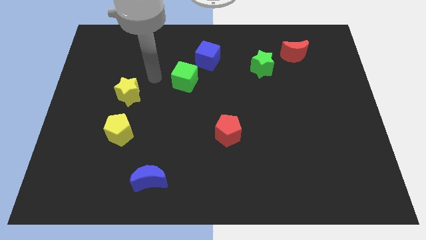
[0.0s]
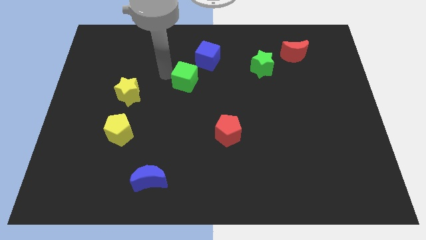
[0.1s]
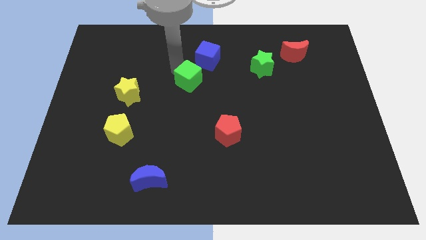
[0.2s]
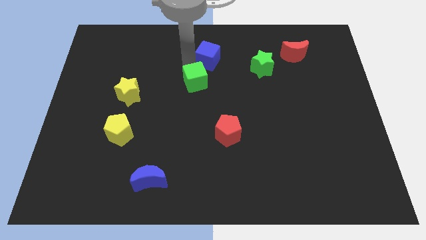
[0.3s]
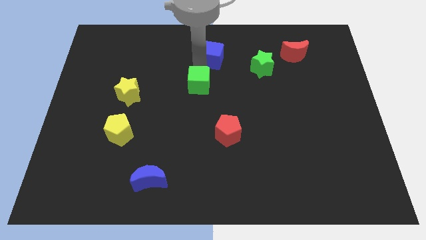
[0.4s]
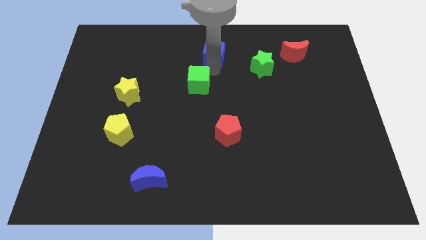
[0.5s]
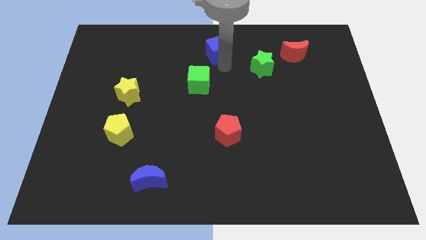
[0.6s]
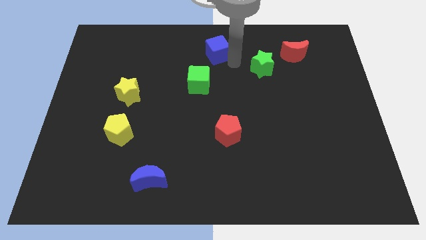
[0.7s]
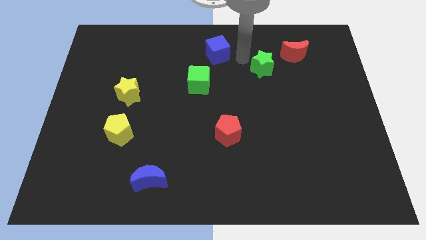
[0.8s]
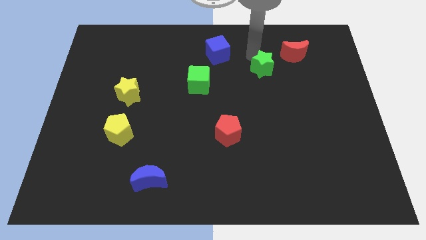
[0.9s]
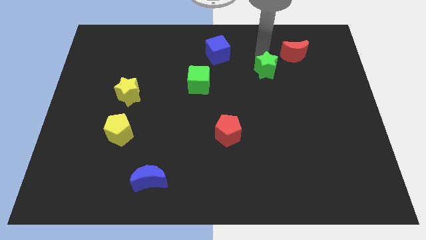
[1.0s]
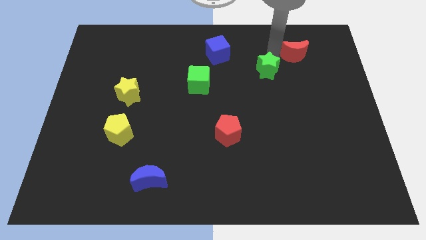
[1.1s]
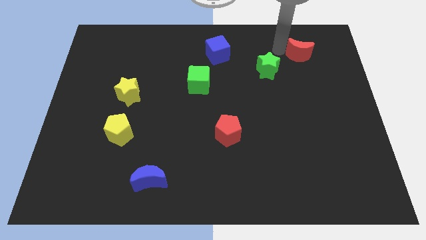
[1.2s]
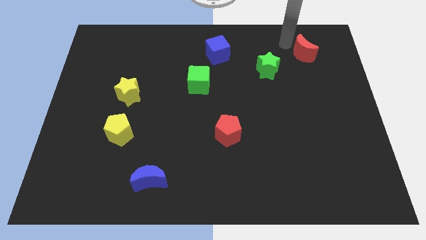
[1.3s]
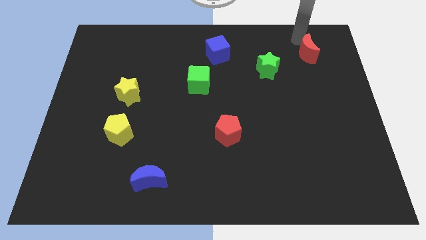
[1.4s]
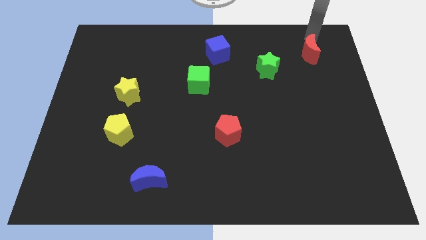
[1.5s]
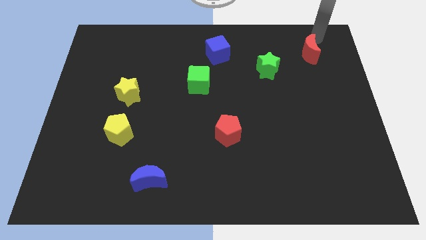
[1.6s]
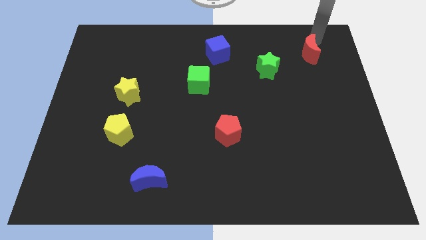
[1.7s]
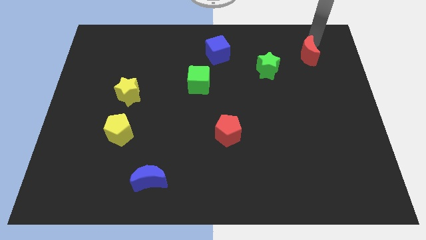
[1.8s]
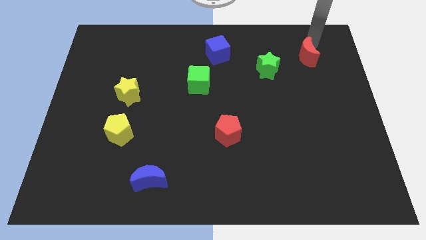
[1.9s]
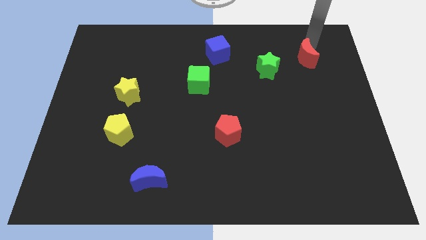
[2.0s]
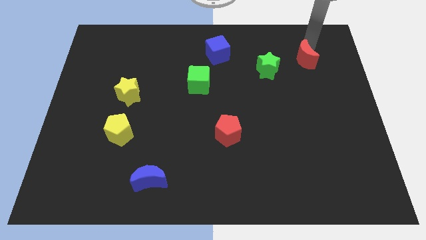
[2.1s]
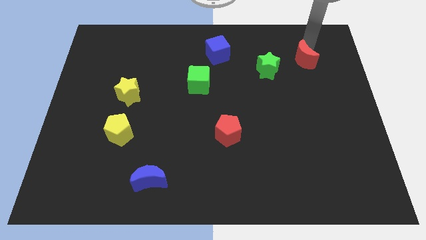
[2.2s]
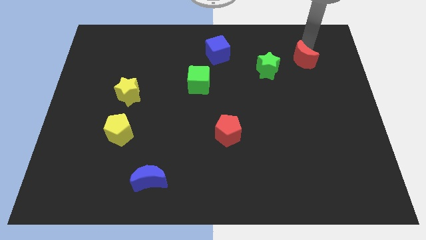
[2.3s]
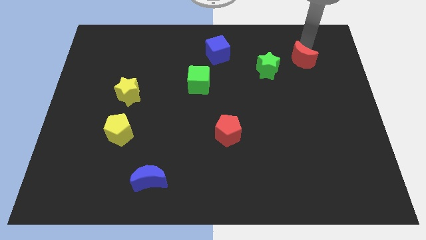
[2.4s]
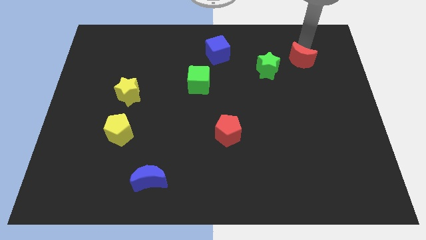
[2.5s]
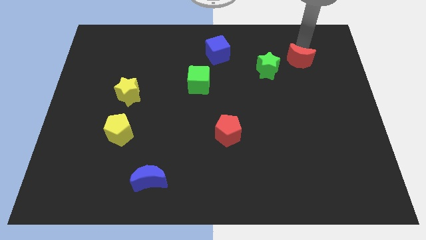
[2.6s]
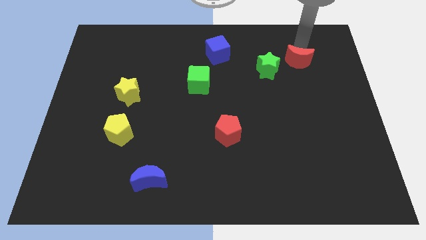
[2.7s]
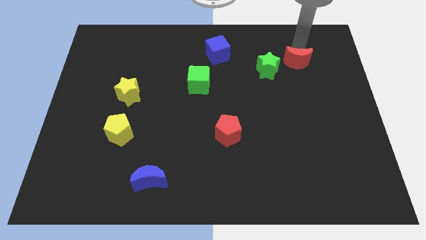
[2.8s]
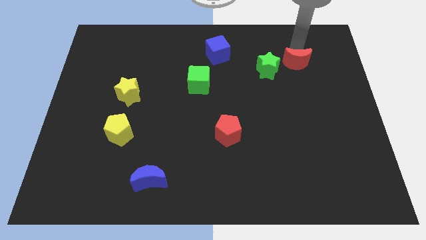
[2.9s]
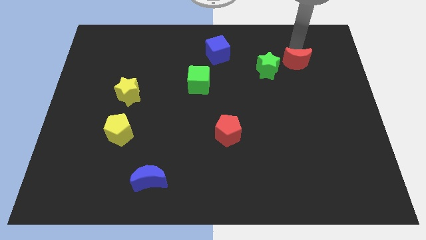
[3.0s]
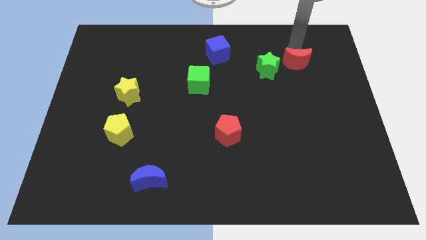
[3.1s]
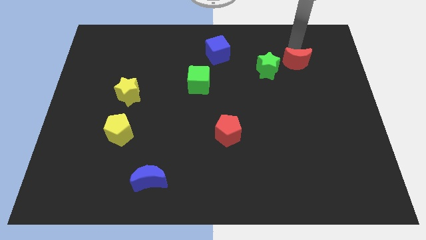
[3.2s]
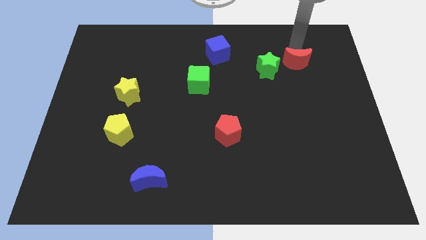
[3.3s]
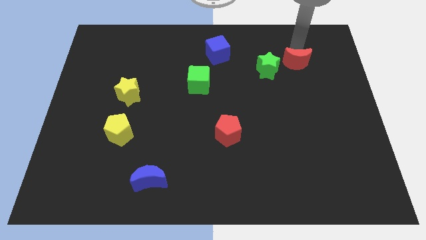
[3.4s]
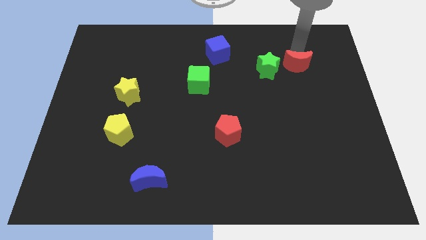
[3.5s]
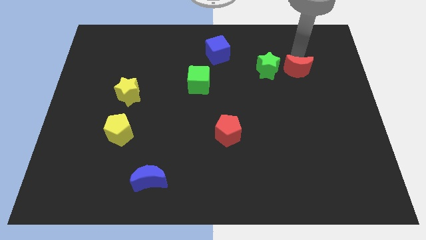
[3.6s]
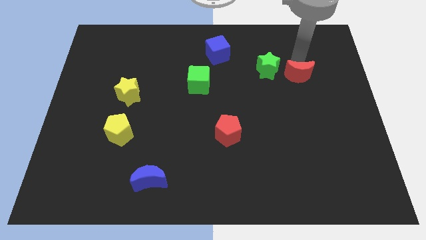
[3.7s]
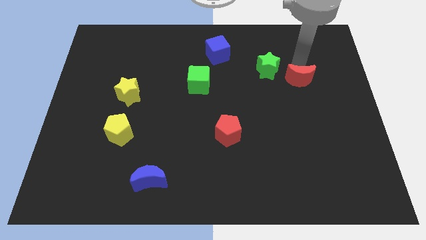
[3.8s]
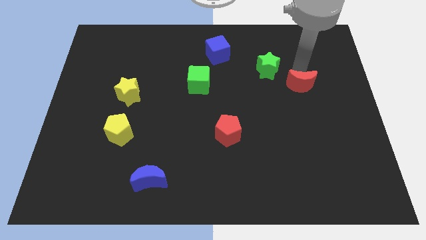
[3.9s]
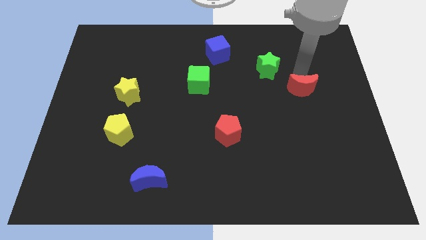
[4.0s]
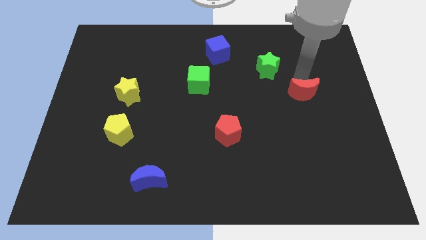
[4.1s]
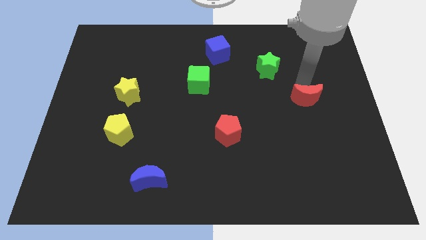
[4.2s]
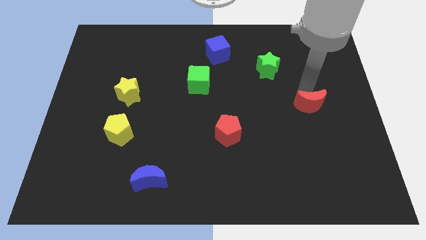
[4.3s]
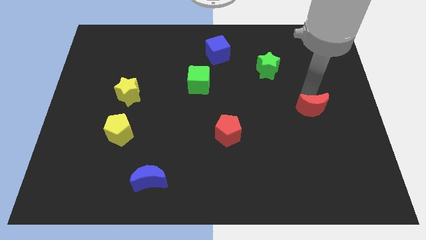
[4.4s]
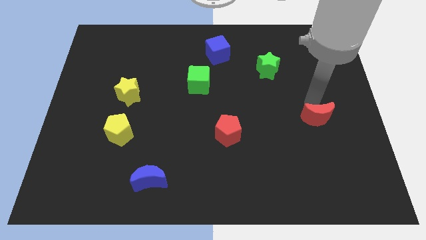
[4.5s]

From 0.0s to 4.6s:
slide the red moon downwards

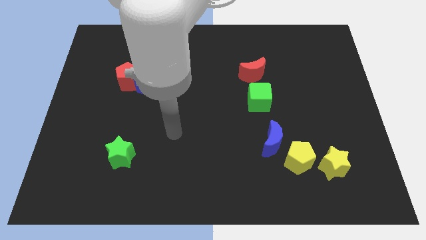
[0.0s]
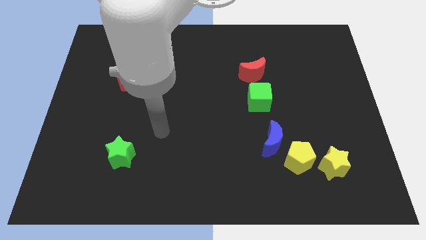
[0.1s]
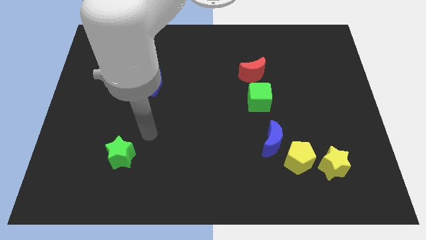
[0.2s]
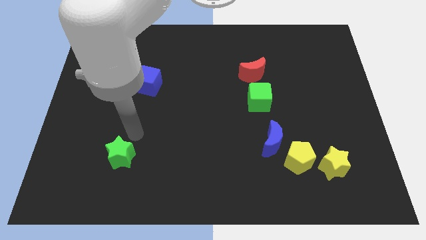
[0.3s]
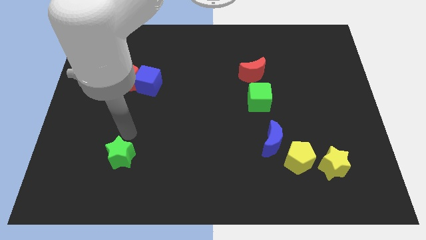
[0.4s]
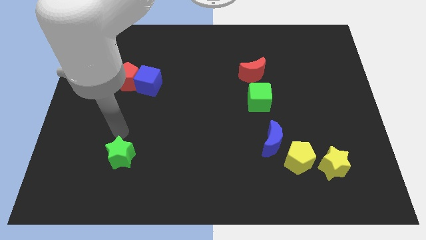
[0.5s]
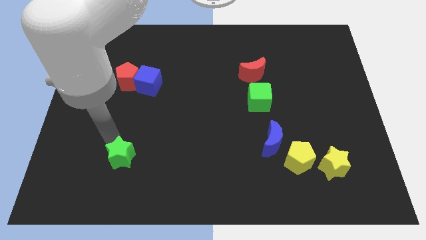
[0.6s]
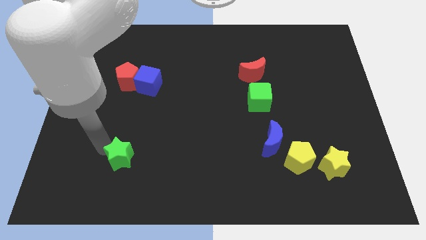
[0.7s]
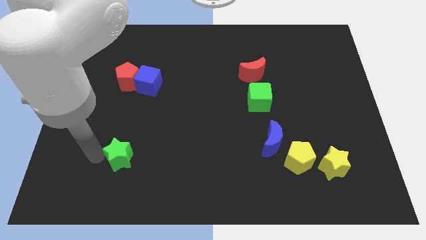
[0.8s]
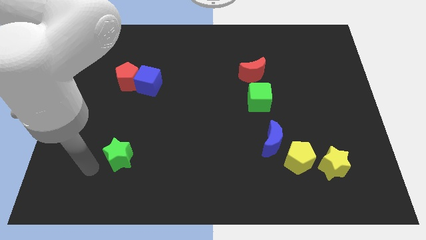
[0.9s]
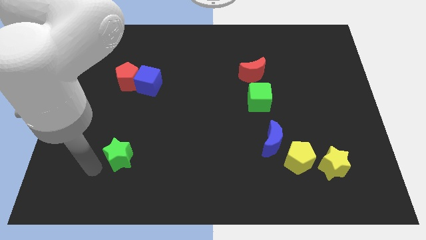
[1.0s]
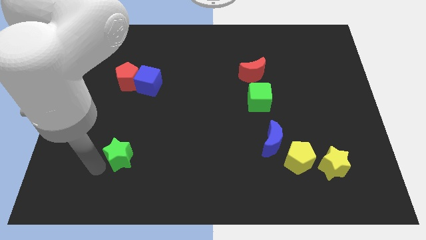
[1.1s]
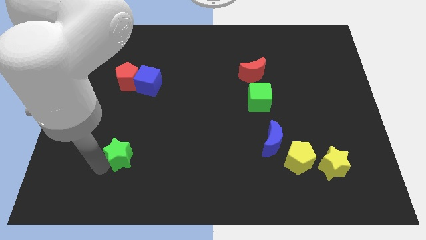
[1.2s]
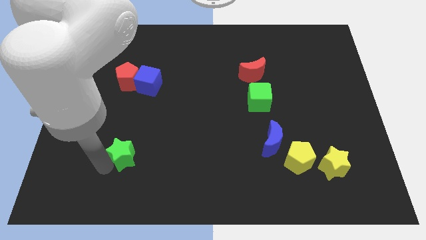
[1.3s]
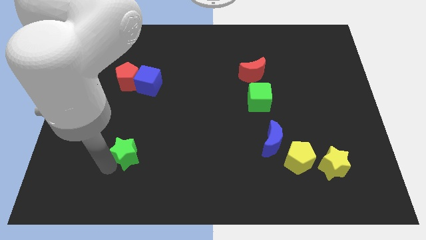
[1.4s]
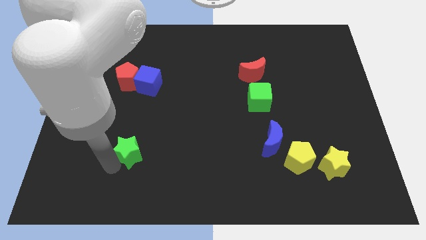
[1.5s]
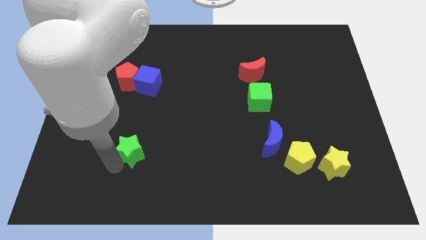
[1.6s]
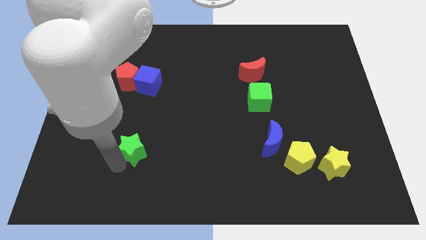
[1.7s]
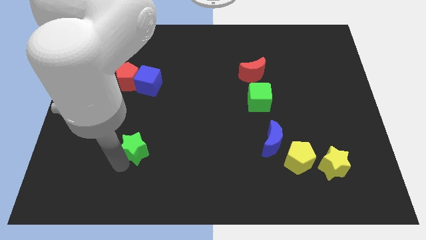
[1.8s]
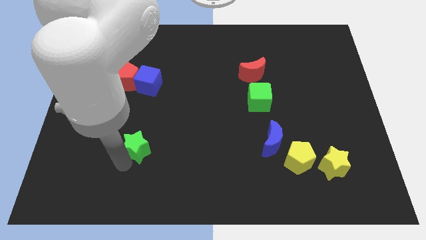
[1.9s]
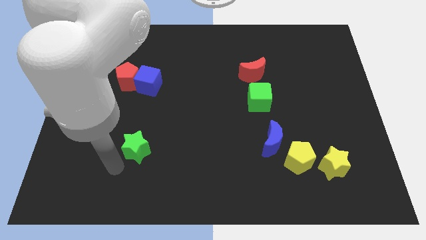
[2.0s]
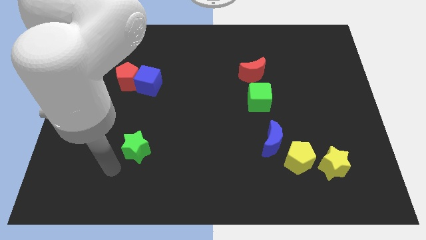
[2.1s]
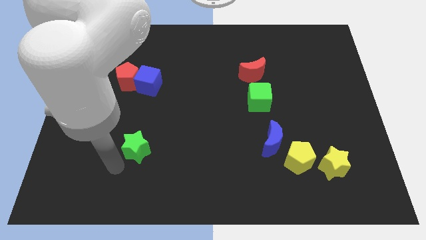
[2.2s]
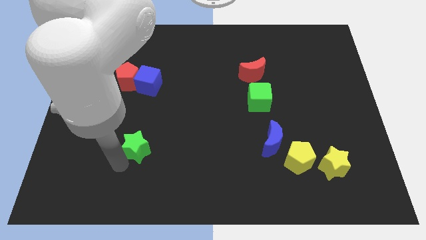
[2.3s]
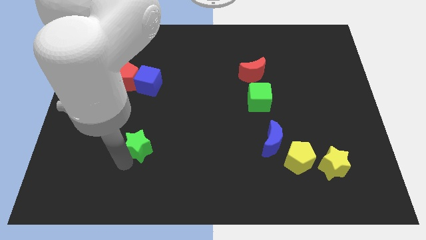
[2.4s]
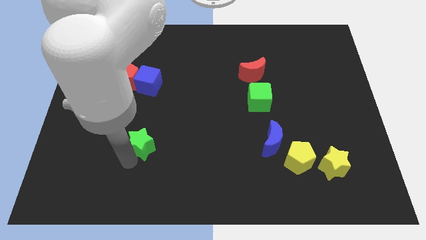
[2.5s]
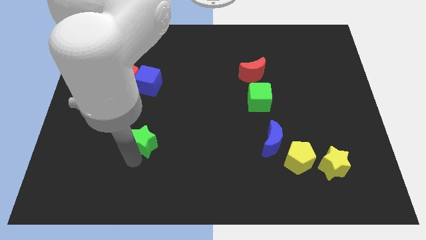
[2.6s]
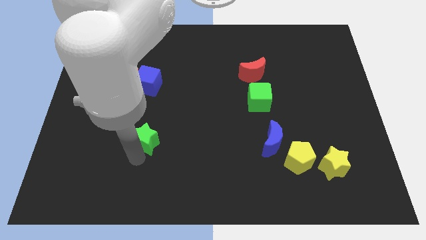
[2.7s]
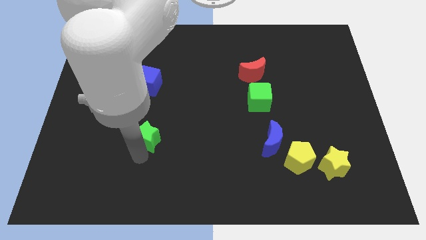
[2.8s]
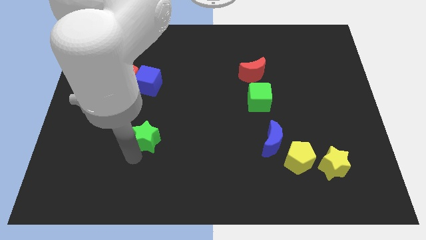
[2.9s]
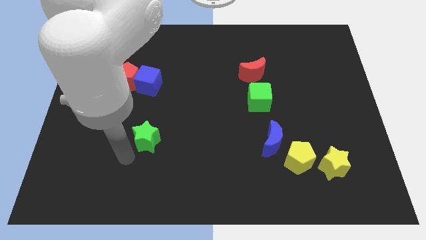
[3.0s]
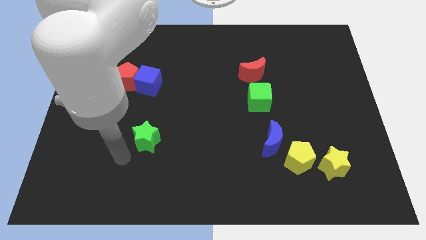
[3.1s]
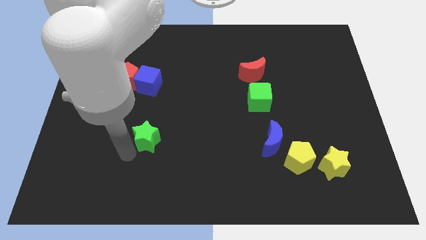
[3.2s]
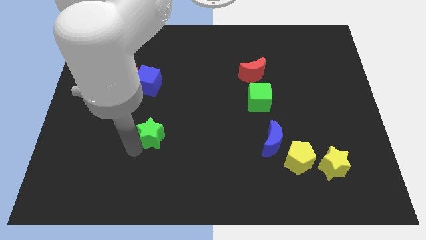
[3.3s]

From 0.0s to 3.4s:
slide the green star up and right diagonally a bit
